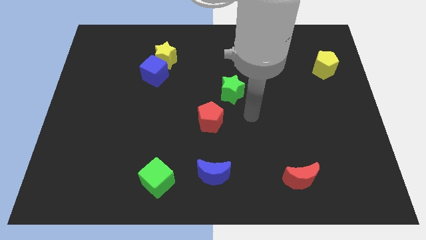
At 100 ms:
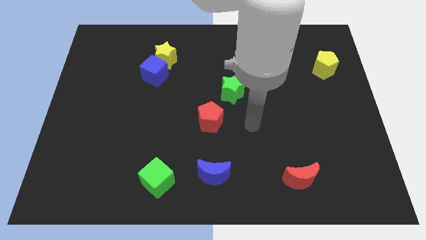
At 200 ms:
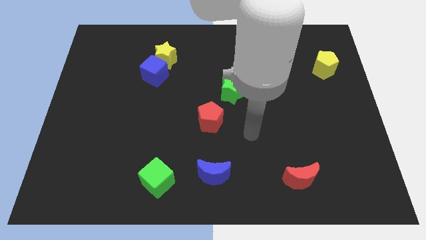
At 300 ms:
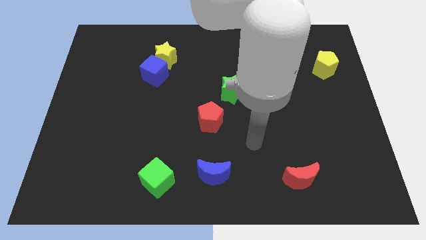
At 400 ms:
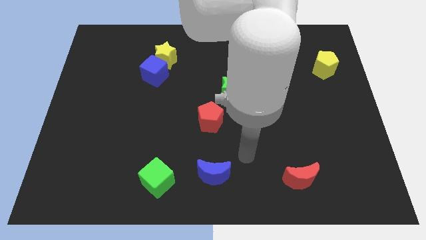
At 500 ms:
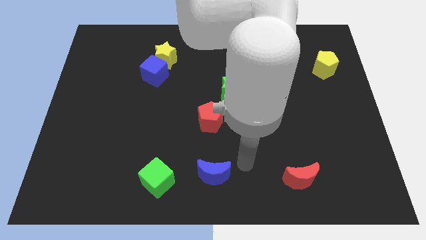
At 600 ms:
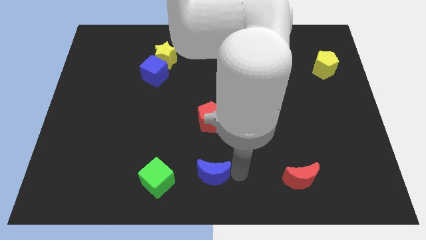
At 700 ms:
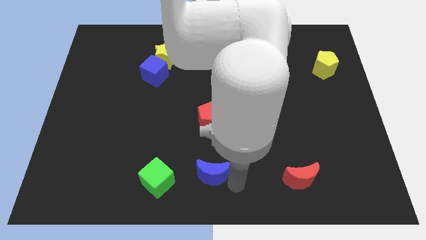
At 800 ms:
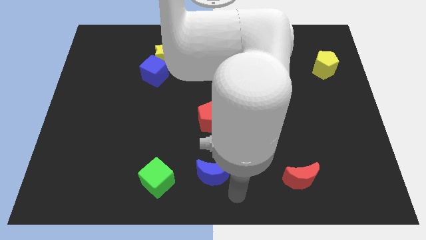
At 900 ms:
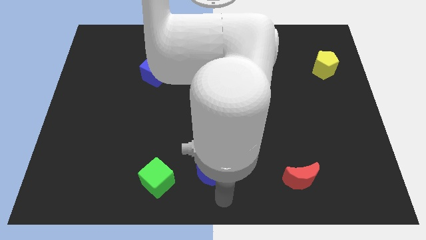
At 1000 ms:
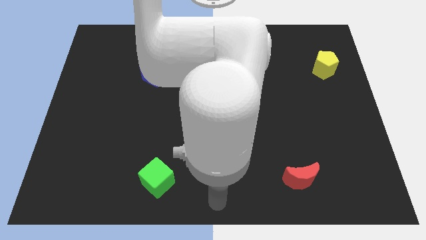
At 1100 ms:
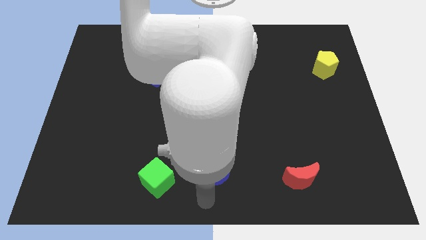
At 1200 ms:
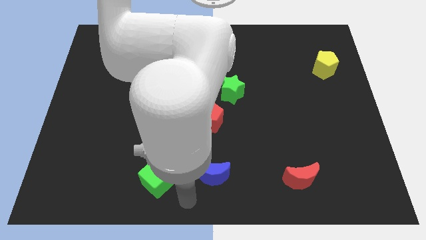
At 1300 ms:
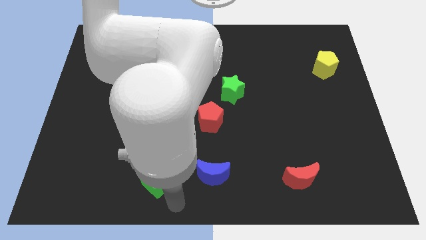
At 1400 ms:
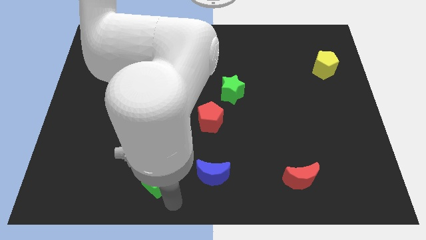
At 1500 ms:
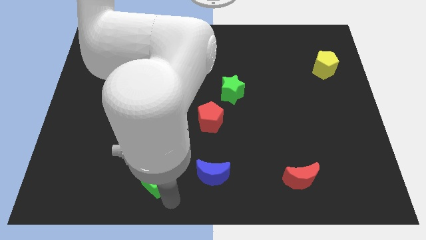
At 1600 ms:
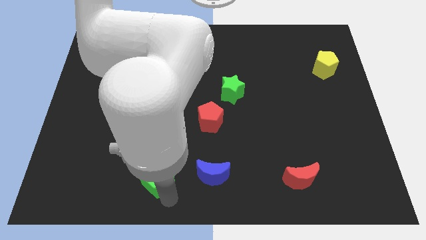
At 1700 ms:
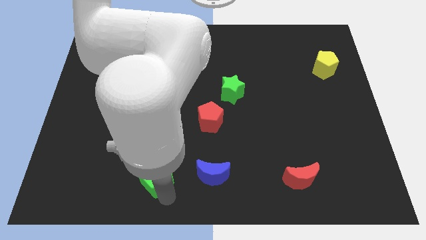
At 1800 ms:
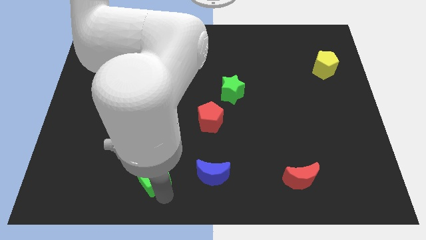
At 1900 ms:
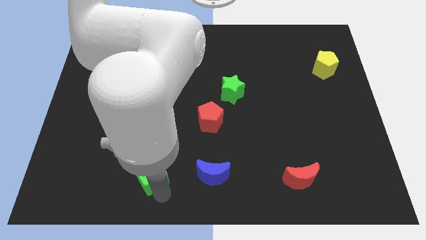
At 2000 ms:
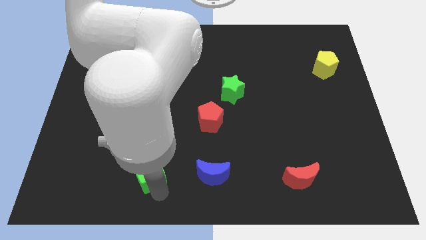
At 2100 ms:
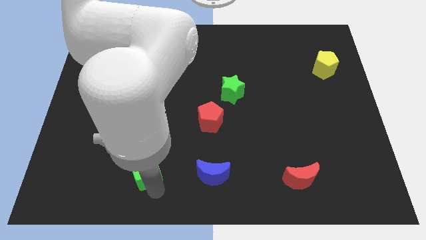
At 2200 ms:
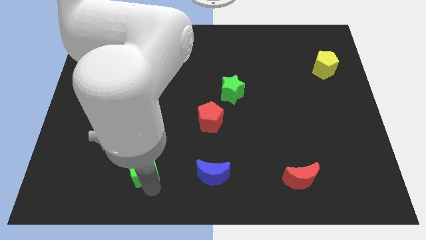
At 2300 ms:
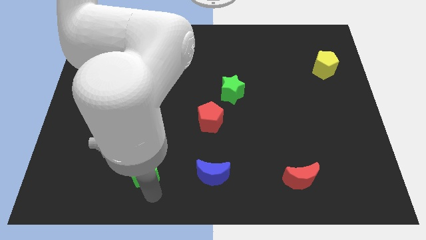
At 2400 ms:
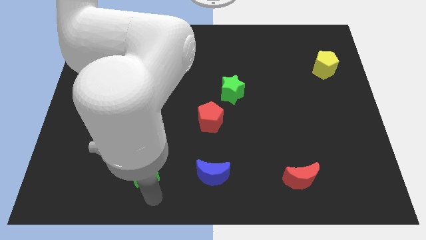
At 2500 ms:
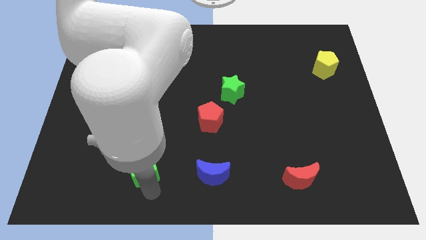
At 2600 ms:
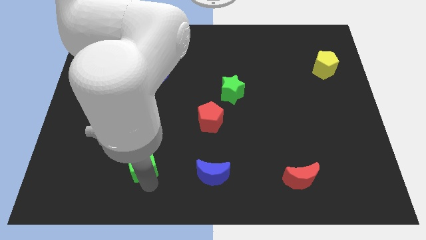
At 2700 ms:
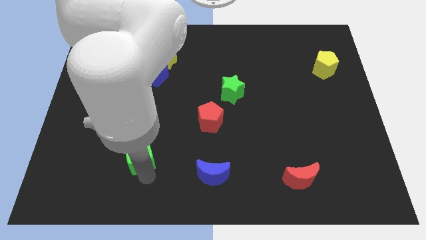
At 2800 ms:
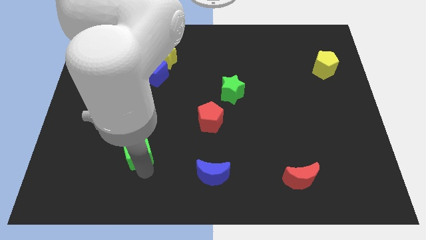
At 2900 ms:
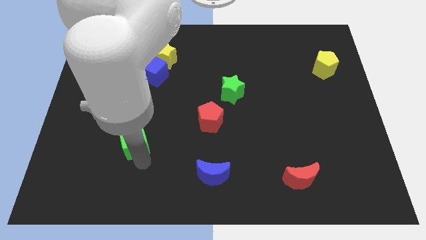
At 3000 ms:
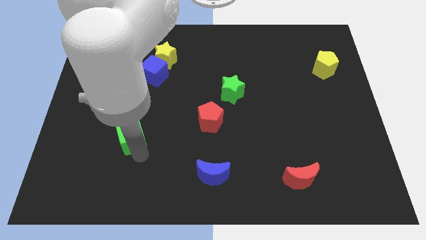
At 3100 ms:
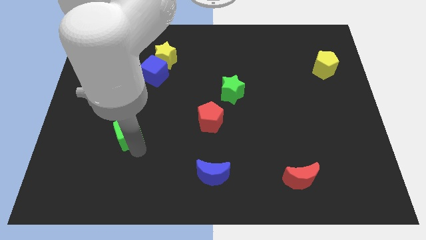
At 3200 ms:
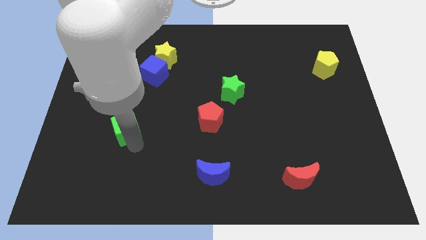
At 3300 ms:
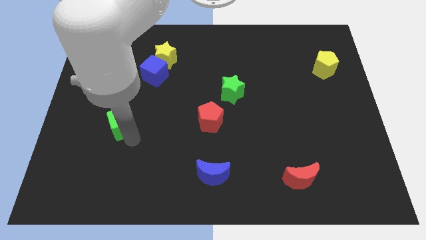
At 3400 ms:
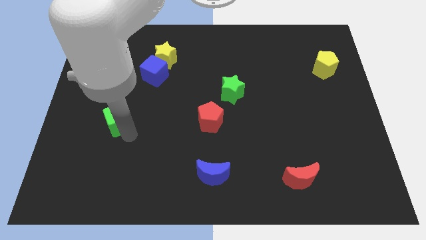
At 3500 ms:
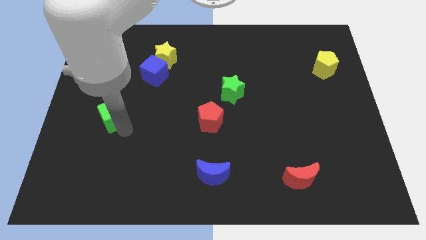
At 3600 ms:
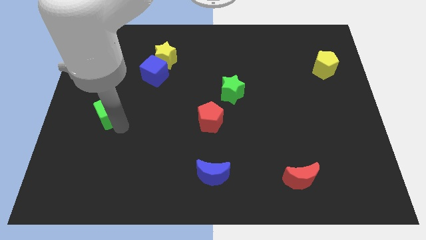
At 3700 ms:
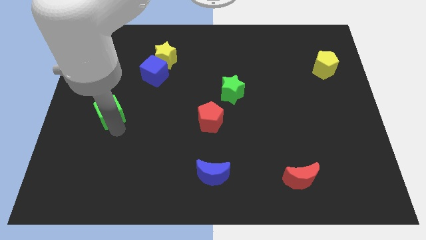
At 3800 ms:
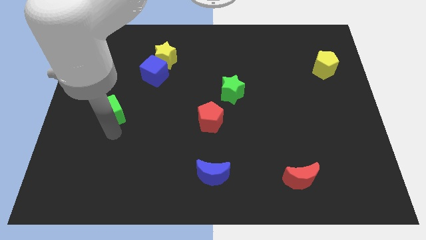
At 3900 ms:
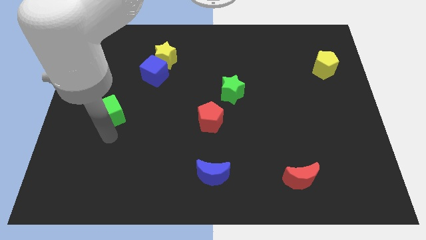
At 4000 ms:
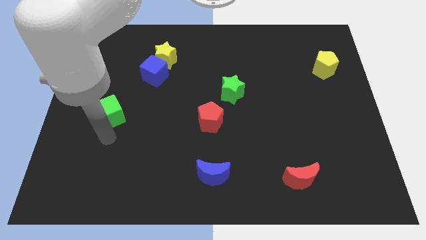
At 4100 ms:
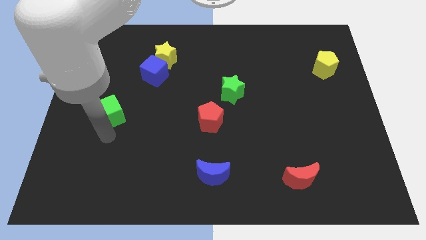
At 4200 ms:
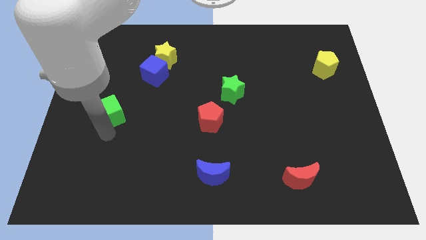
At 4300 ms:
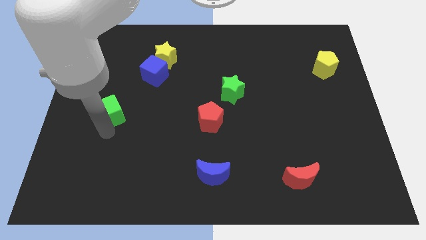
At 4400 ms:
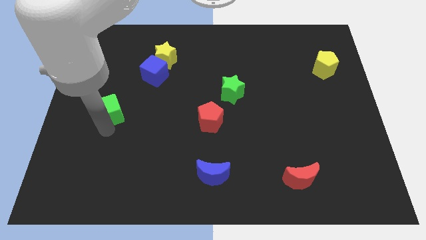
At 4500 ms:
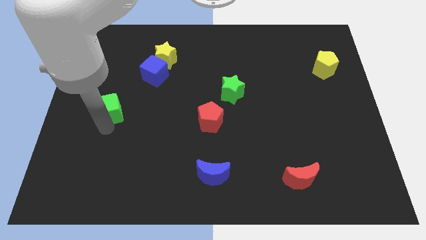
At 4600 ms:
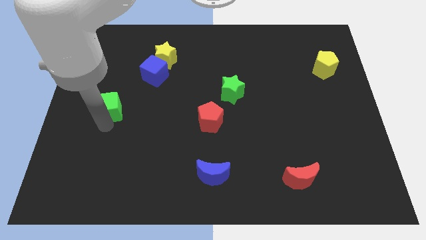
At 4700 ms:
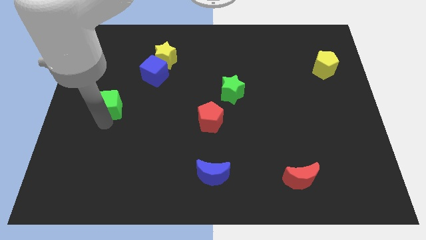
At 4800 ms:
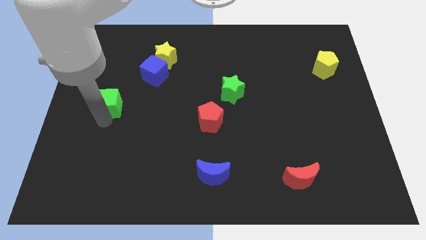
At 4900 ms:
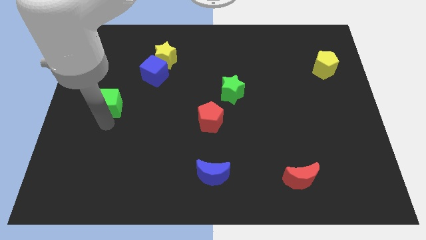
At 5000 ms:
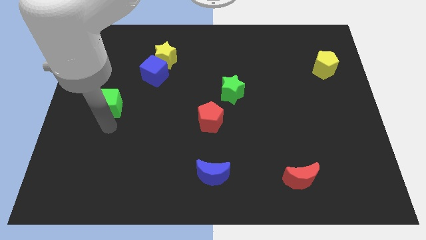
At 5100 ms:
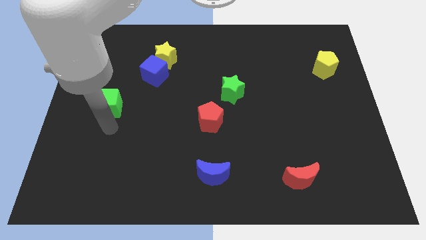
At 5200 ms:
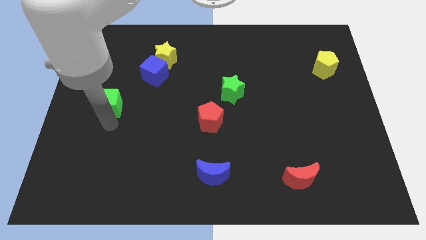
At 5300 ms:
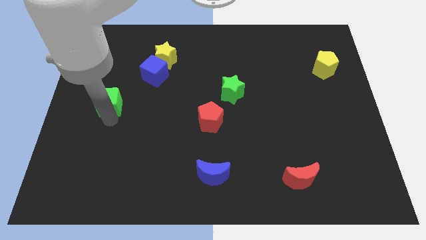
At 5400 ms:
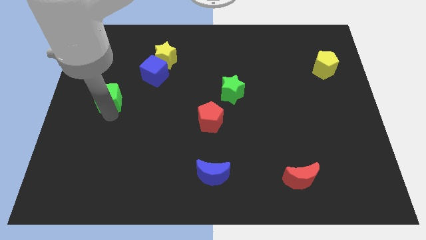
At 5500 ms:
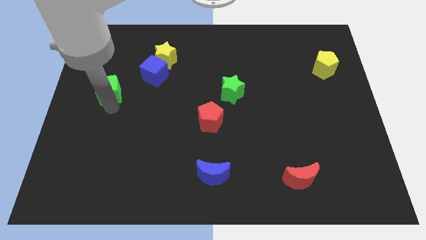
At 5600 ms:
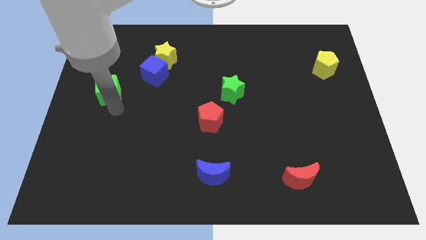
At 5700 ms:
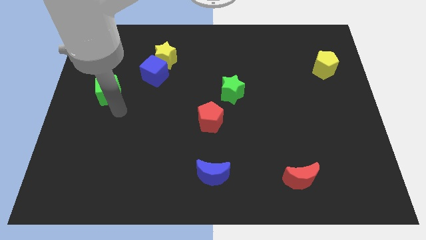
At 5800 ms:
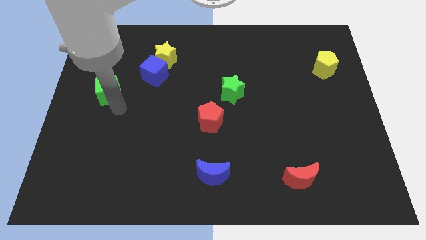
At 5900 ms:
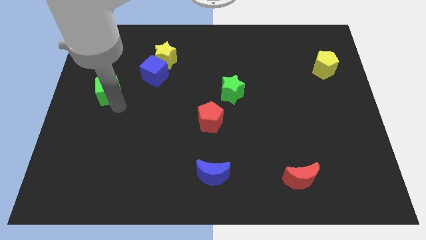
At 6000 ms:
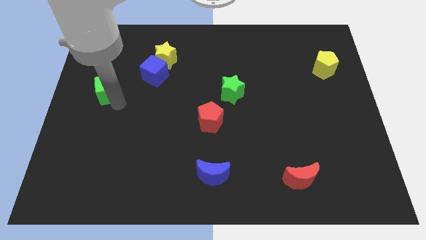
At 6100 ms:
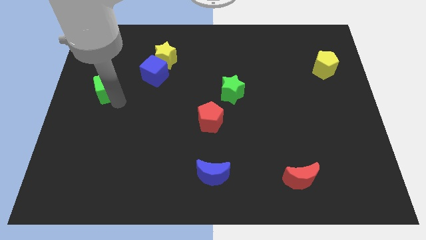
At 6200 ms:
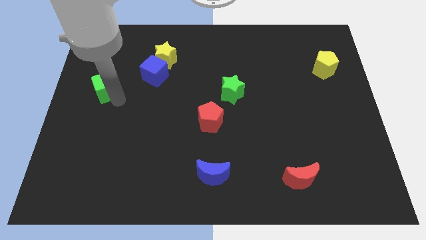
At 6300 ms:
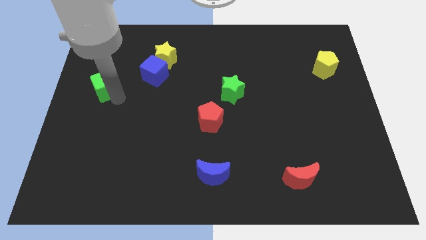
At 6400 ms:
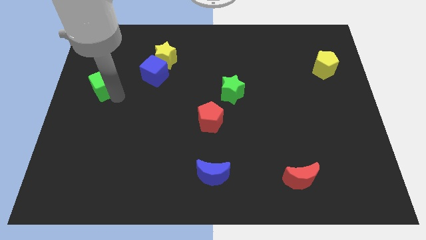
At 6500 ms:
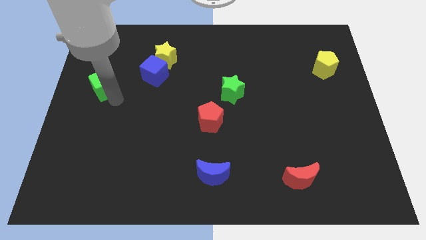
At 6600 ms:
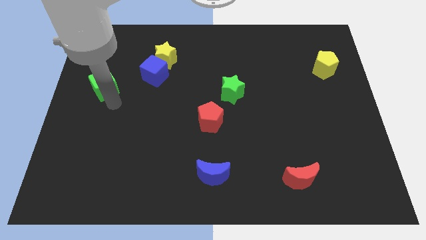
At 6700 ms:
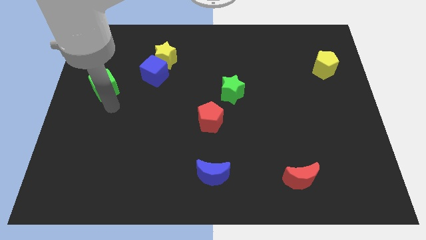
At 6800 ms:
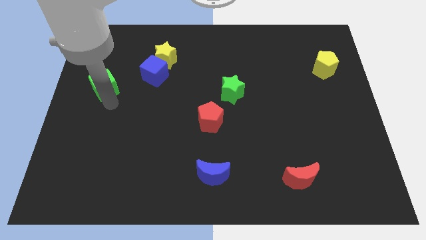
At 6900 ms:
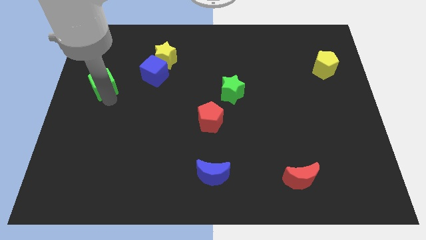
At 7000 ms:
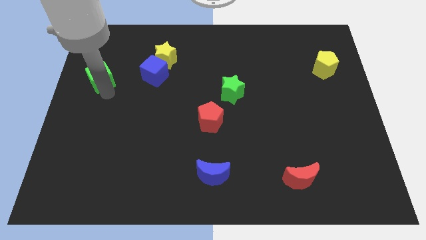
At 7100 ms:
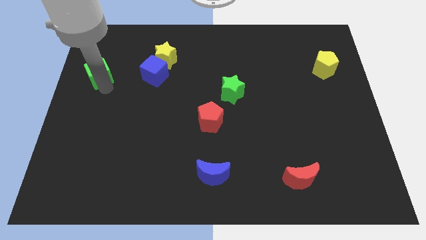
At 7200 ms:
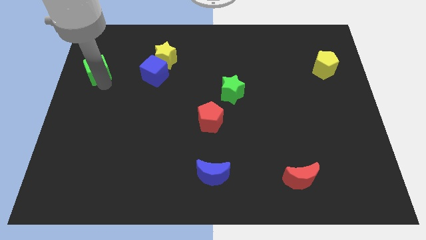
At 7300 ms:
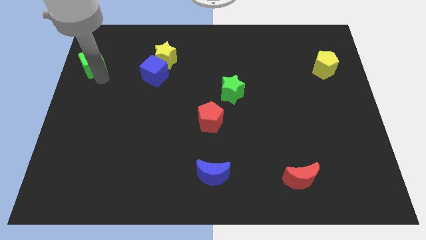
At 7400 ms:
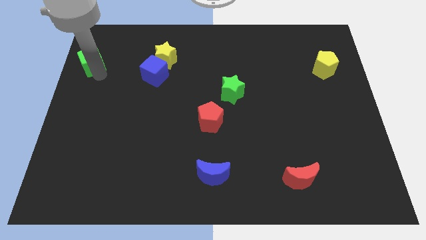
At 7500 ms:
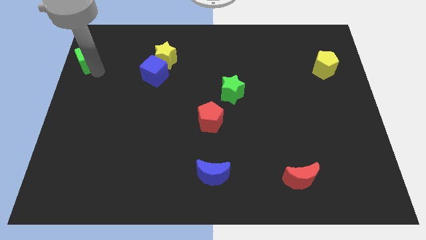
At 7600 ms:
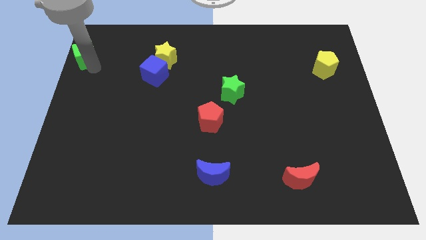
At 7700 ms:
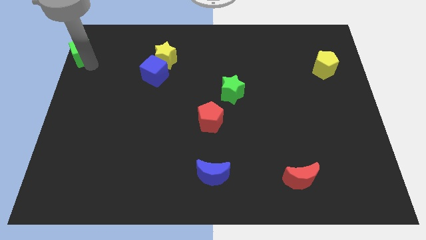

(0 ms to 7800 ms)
move the green cube to the top left of the board
